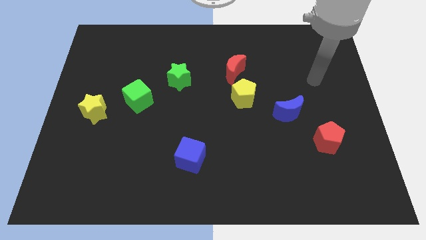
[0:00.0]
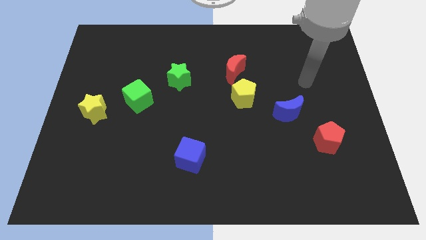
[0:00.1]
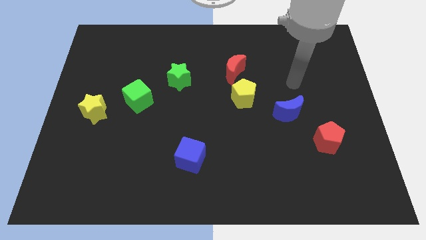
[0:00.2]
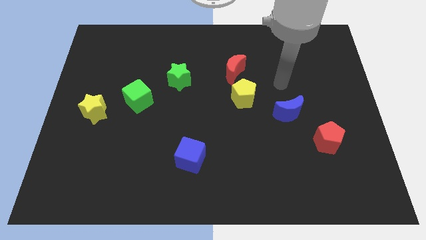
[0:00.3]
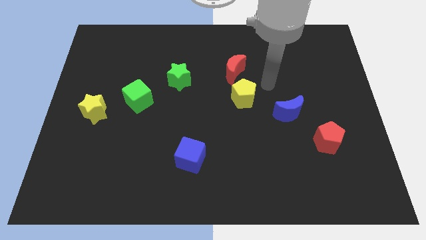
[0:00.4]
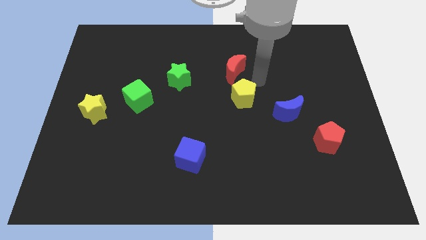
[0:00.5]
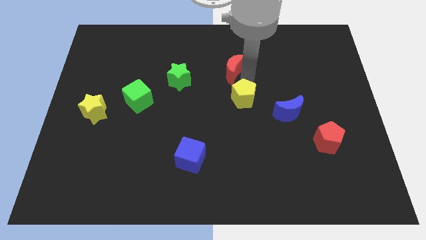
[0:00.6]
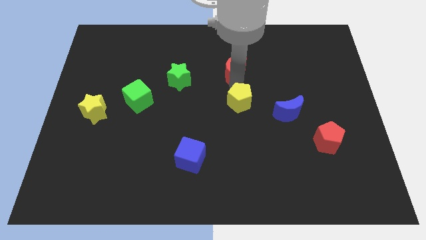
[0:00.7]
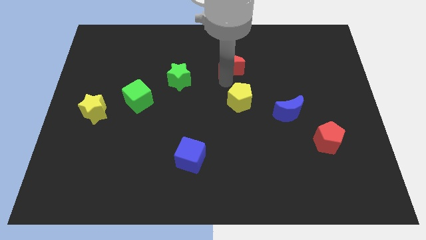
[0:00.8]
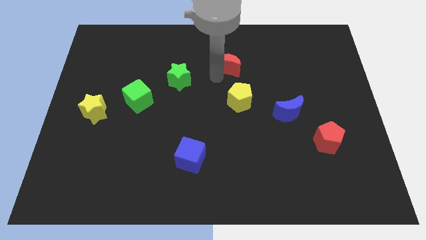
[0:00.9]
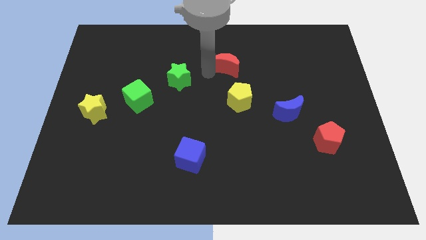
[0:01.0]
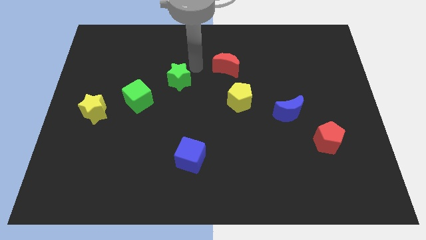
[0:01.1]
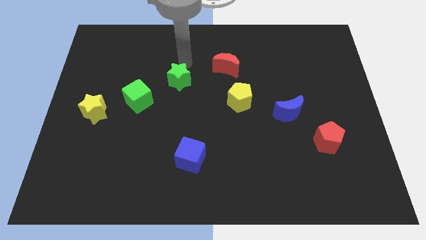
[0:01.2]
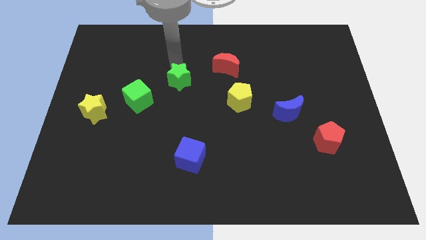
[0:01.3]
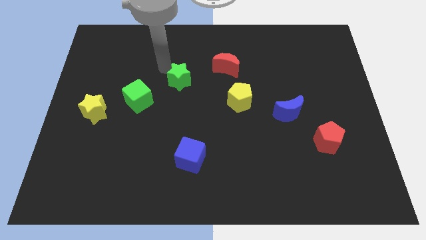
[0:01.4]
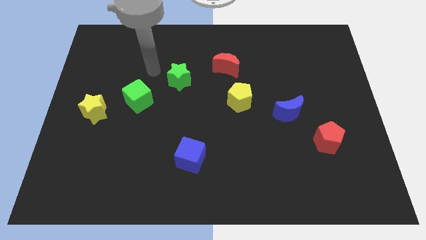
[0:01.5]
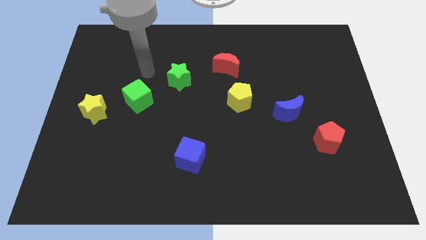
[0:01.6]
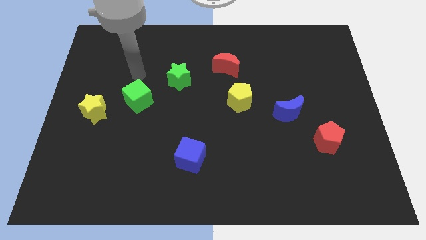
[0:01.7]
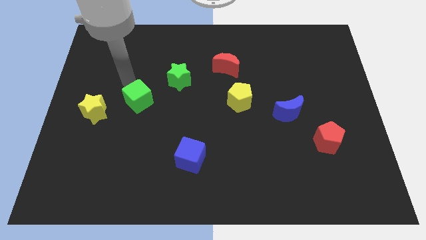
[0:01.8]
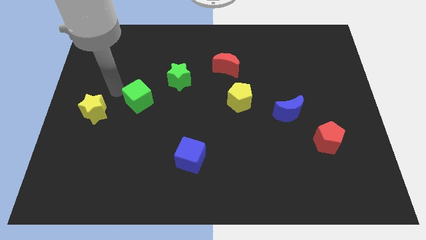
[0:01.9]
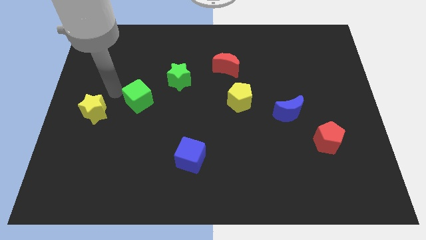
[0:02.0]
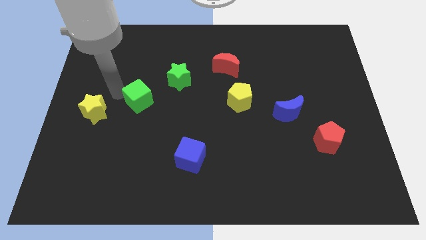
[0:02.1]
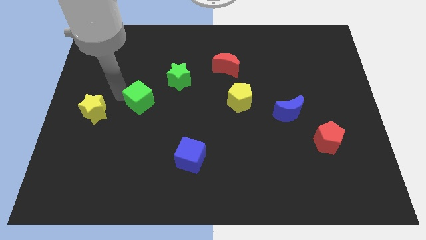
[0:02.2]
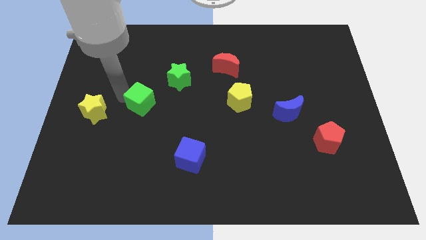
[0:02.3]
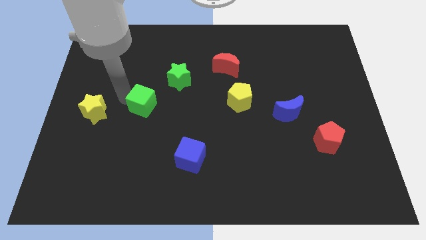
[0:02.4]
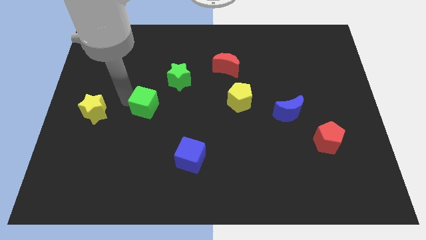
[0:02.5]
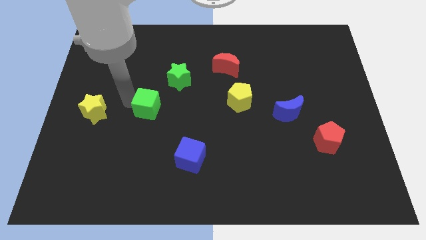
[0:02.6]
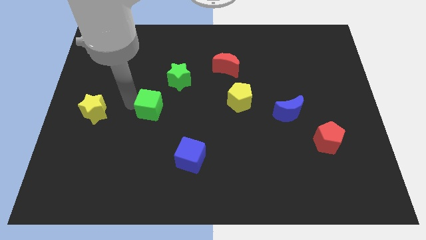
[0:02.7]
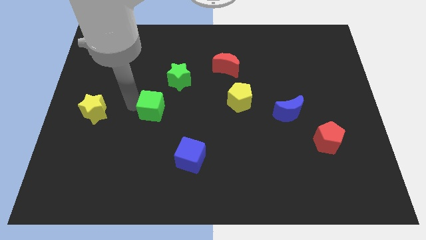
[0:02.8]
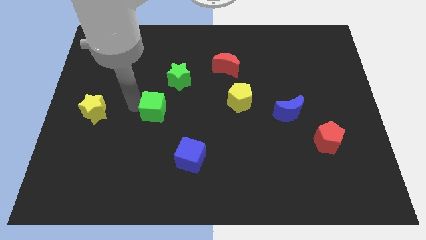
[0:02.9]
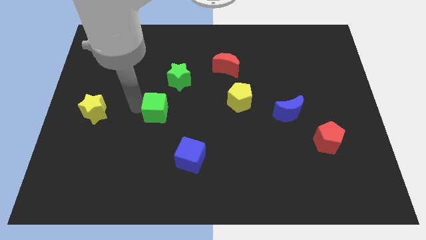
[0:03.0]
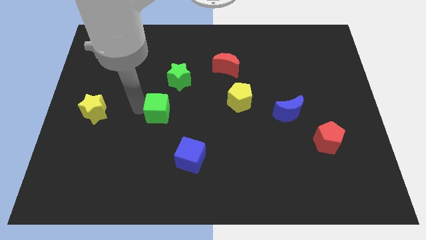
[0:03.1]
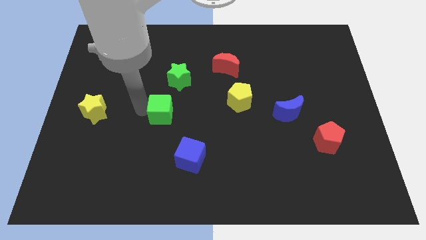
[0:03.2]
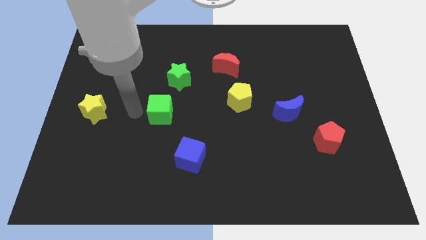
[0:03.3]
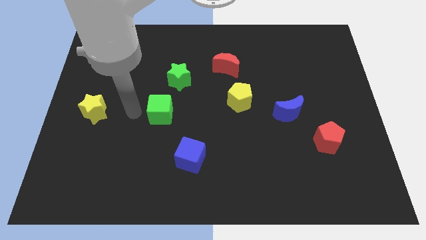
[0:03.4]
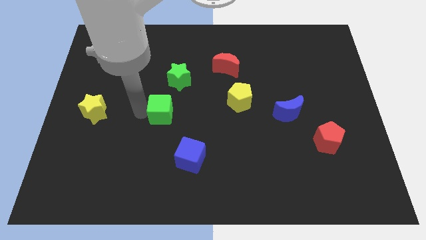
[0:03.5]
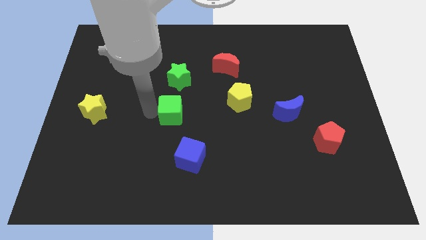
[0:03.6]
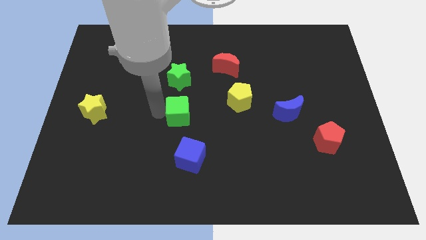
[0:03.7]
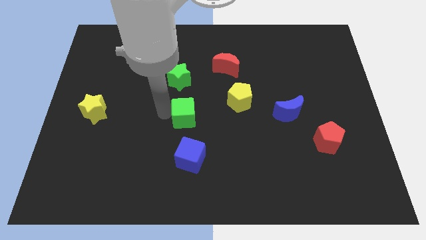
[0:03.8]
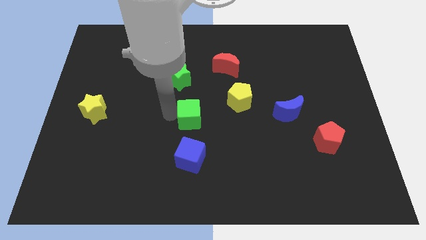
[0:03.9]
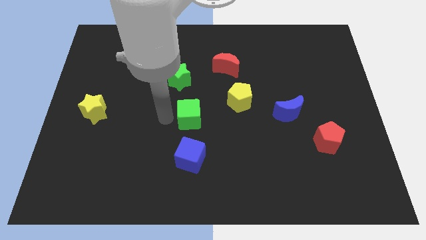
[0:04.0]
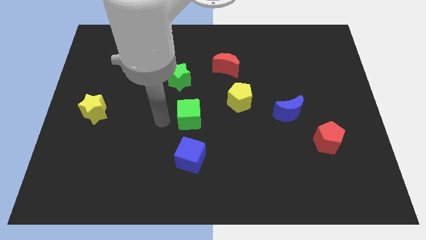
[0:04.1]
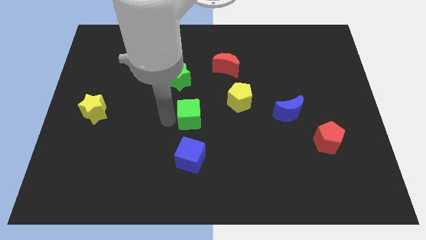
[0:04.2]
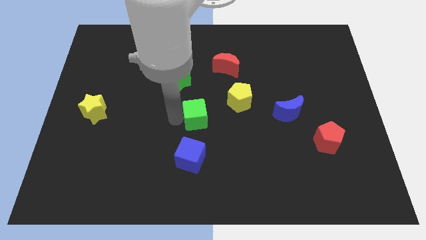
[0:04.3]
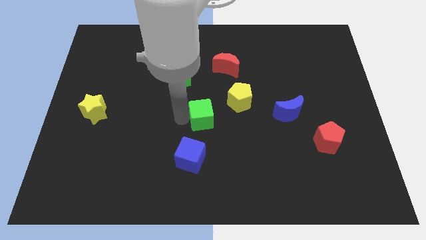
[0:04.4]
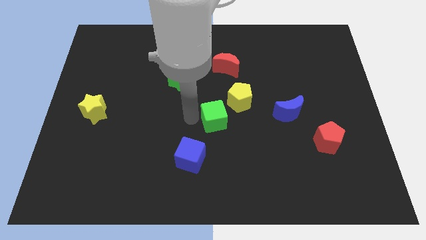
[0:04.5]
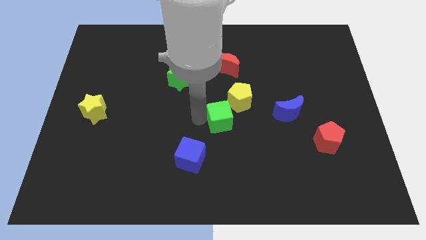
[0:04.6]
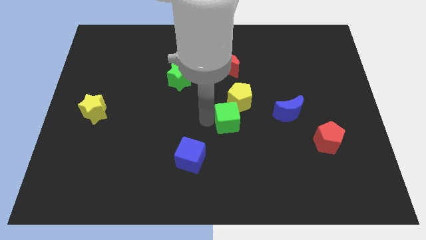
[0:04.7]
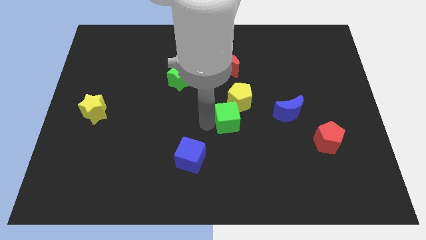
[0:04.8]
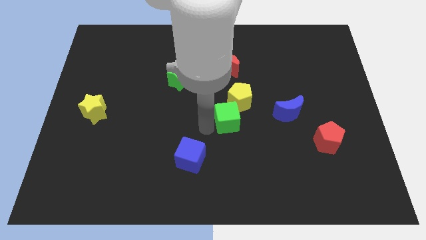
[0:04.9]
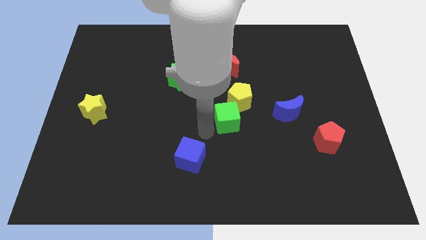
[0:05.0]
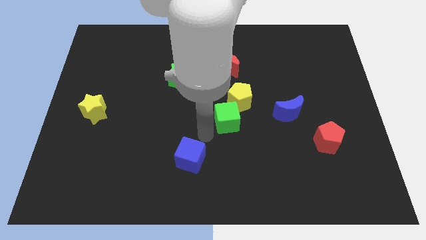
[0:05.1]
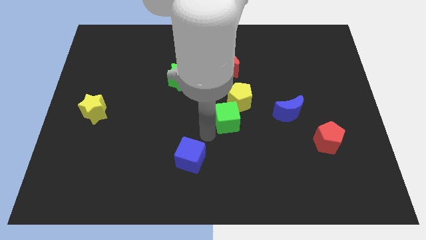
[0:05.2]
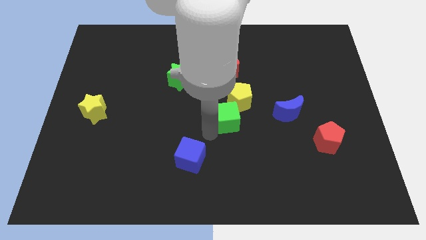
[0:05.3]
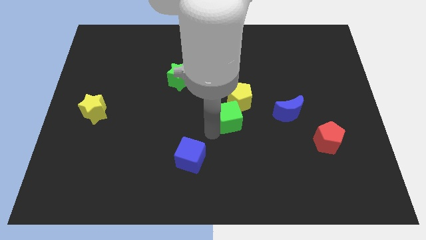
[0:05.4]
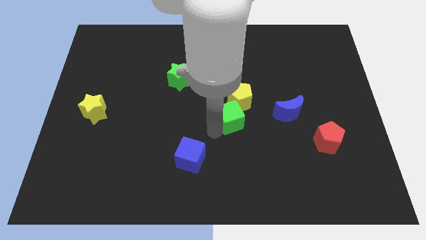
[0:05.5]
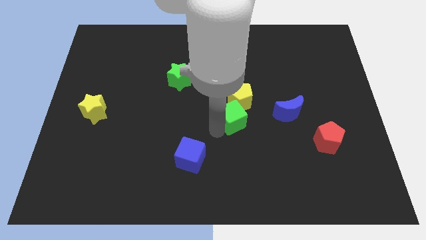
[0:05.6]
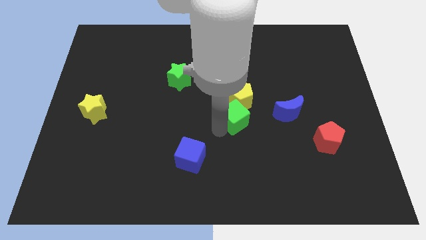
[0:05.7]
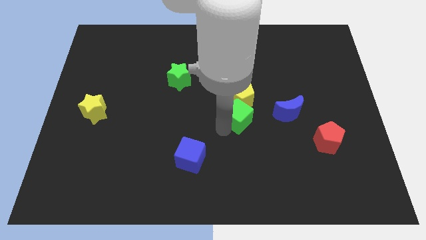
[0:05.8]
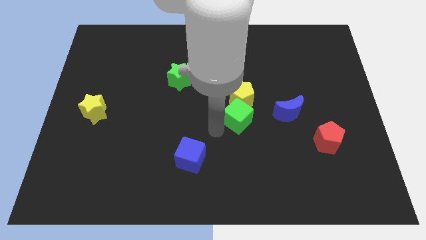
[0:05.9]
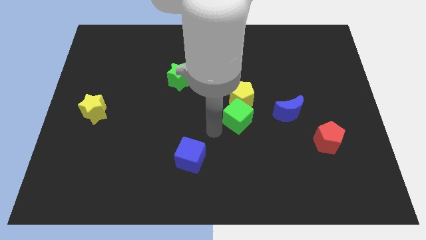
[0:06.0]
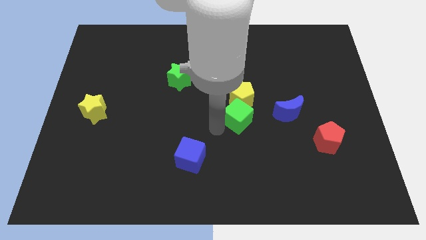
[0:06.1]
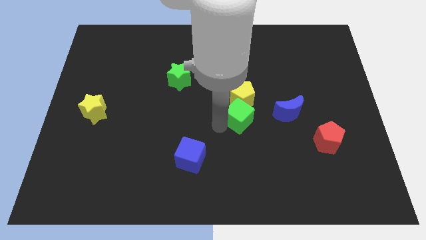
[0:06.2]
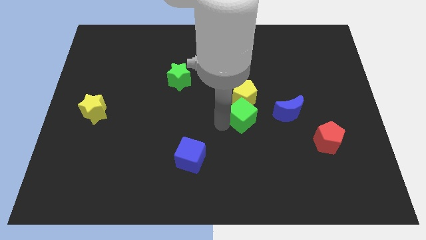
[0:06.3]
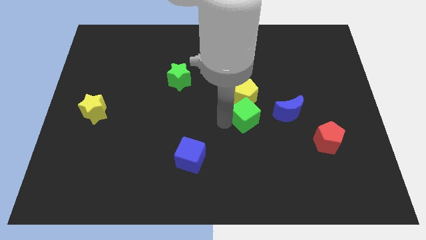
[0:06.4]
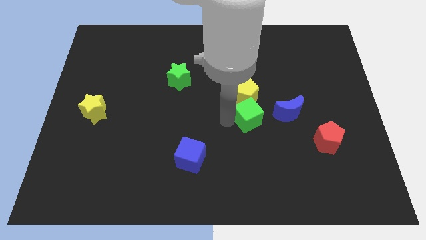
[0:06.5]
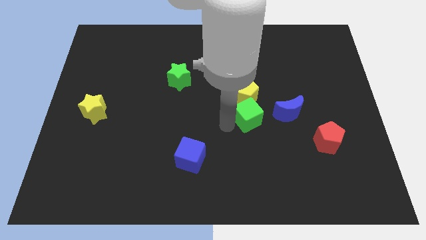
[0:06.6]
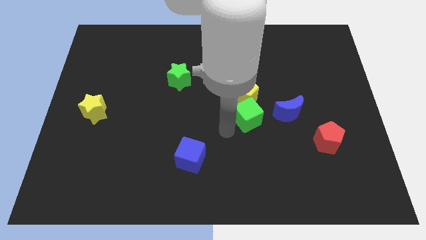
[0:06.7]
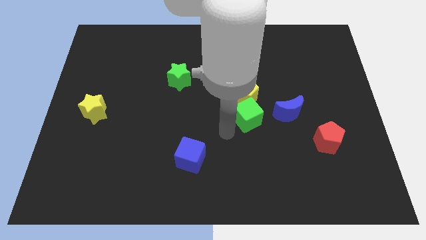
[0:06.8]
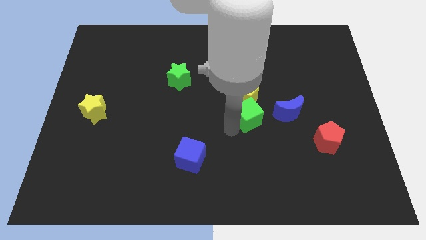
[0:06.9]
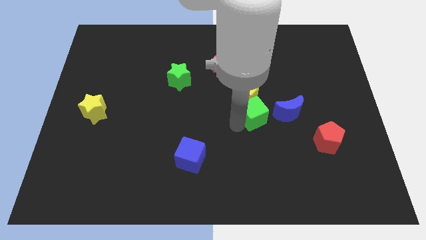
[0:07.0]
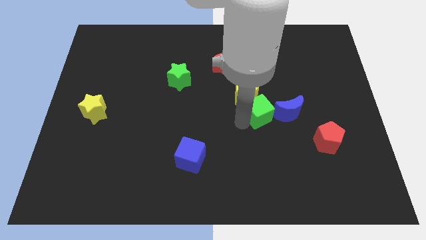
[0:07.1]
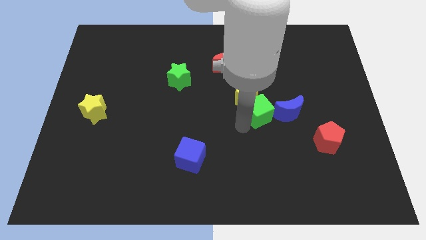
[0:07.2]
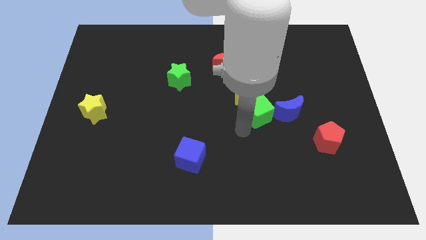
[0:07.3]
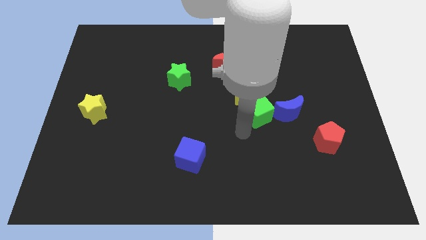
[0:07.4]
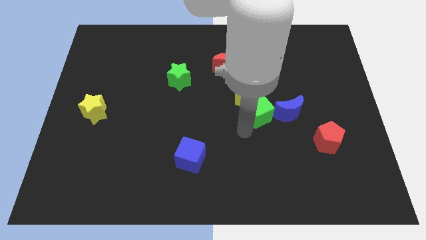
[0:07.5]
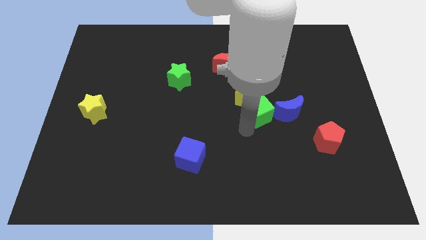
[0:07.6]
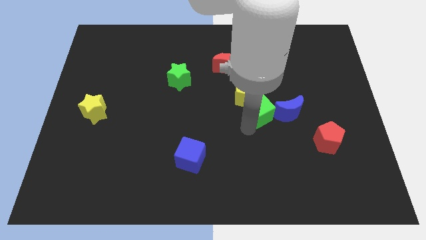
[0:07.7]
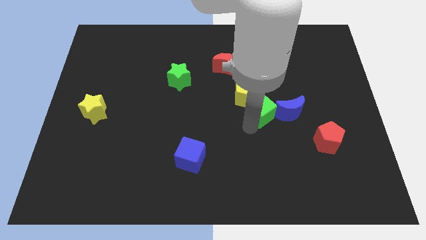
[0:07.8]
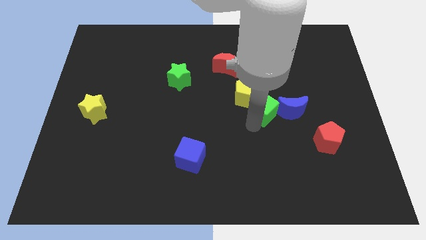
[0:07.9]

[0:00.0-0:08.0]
push the green cube to the right of the yellow pentagon

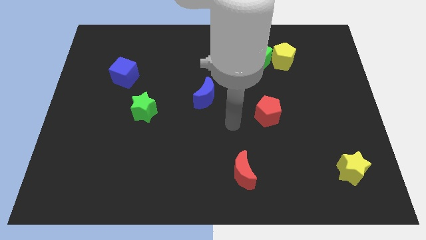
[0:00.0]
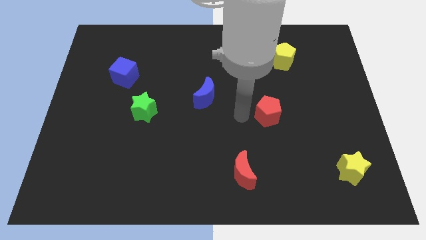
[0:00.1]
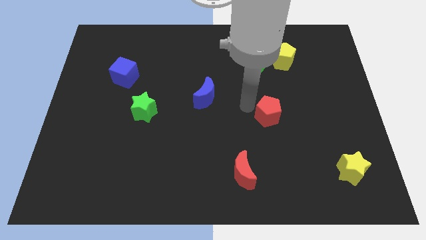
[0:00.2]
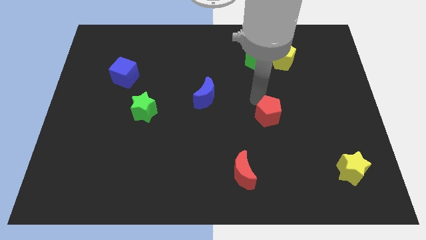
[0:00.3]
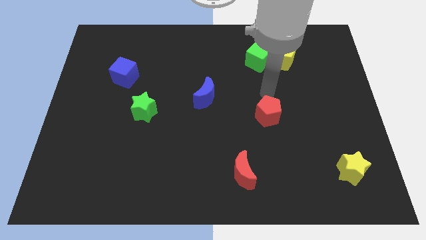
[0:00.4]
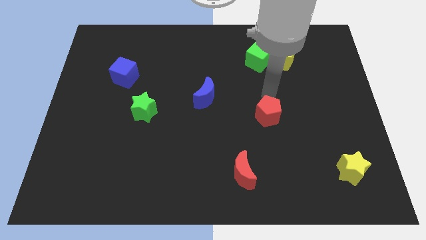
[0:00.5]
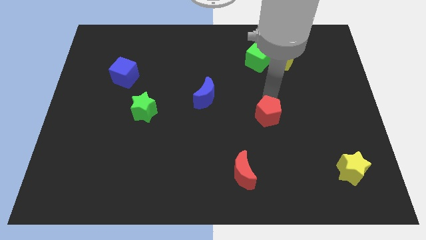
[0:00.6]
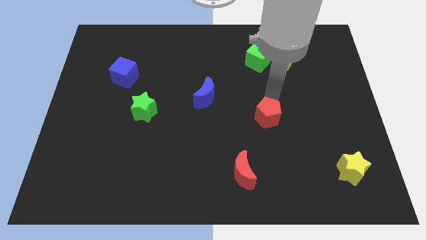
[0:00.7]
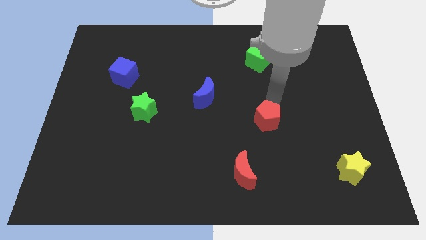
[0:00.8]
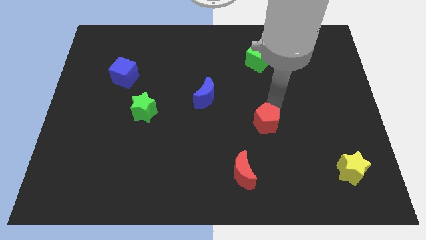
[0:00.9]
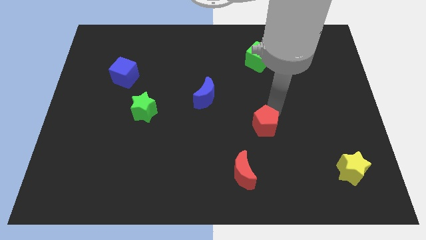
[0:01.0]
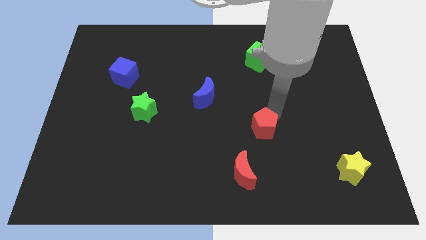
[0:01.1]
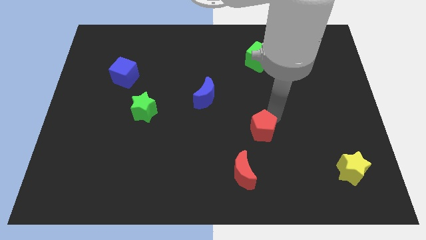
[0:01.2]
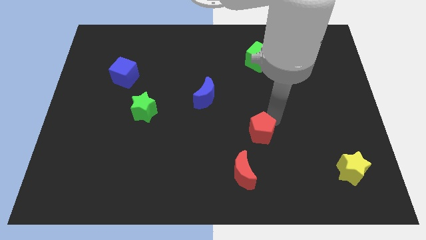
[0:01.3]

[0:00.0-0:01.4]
push the red pentagon to the top right side of the red moon
